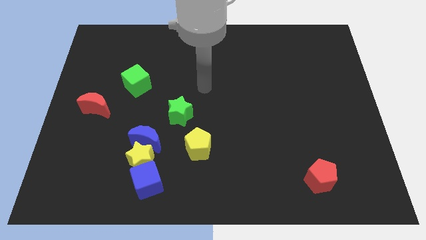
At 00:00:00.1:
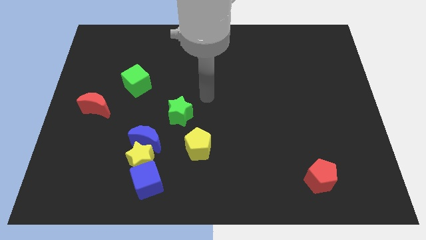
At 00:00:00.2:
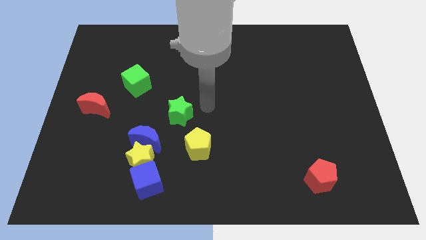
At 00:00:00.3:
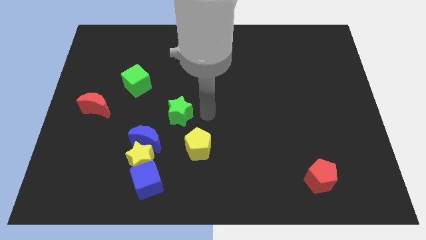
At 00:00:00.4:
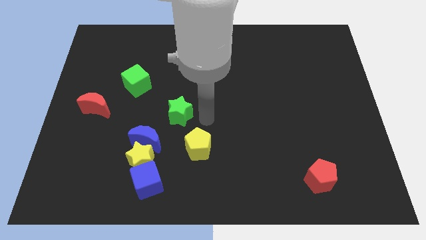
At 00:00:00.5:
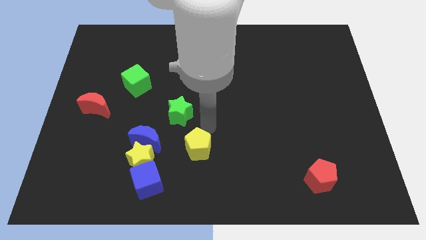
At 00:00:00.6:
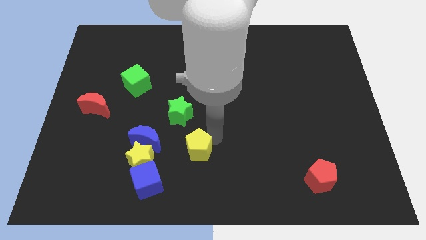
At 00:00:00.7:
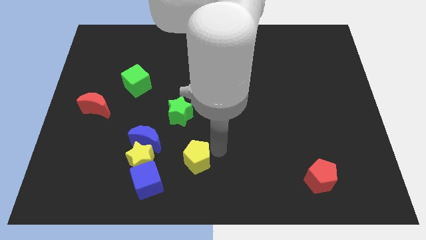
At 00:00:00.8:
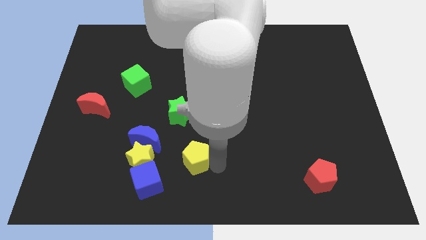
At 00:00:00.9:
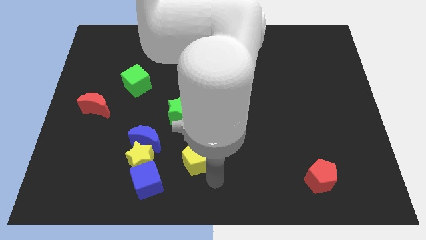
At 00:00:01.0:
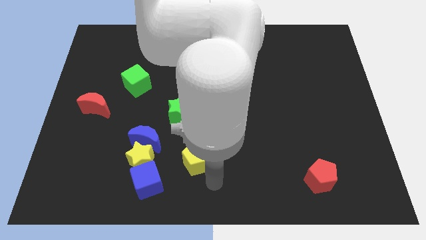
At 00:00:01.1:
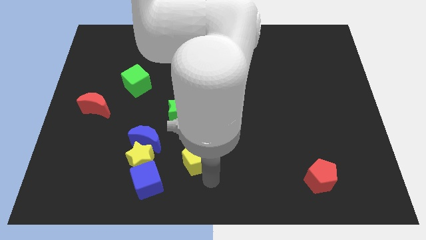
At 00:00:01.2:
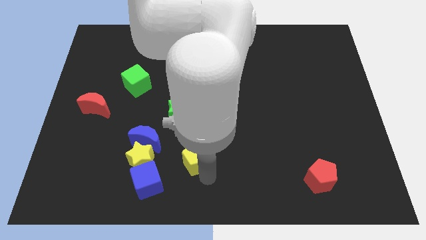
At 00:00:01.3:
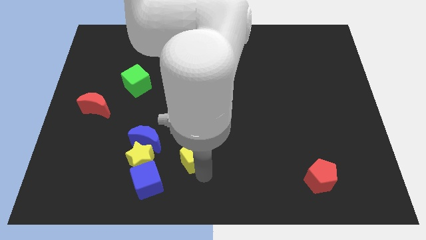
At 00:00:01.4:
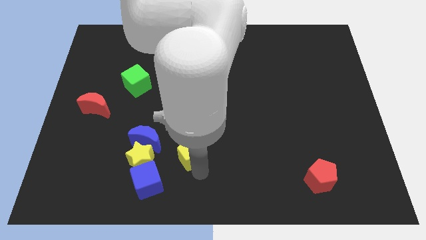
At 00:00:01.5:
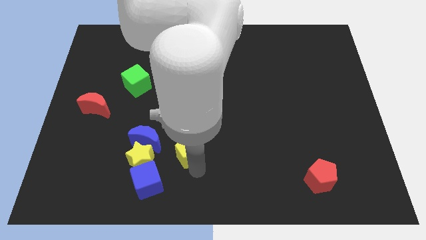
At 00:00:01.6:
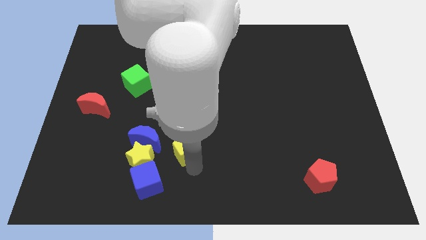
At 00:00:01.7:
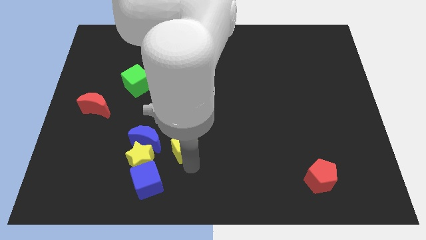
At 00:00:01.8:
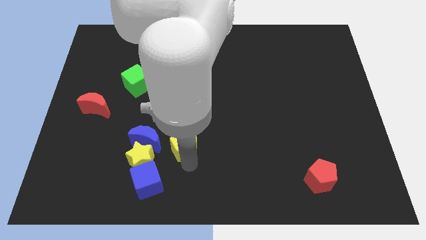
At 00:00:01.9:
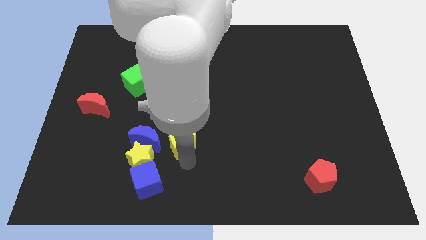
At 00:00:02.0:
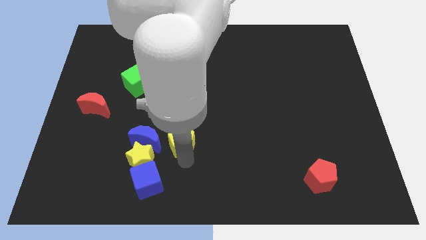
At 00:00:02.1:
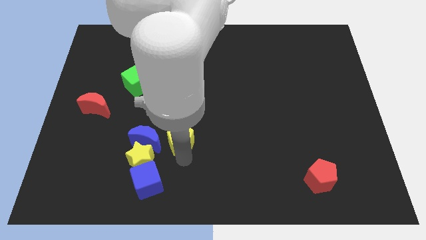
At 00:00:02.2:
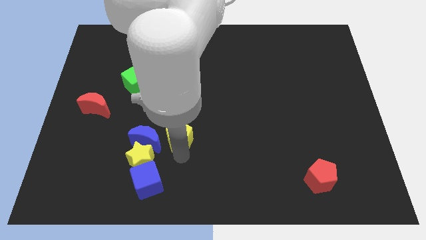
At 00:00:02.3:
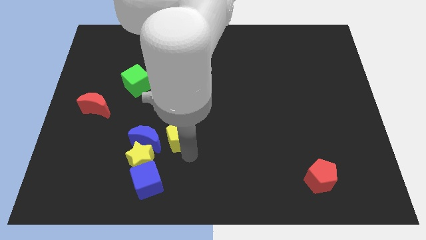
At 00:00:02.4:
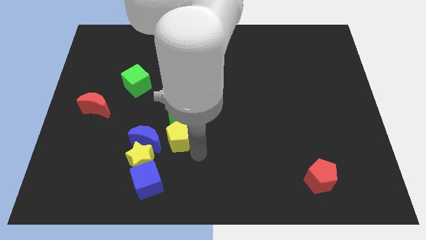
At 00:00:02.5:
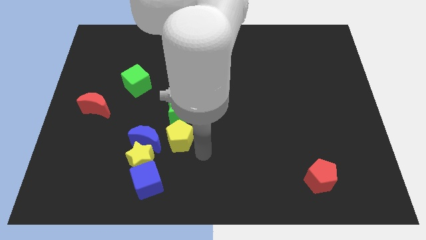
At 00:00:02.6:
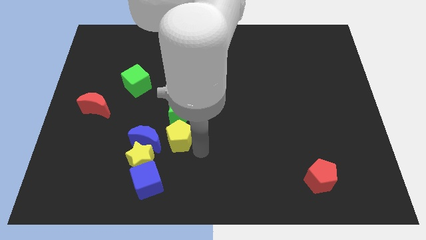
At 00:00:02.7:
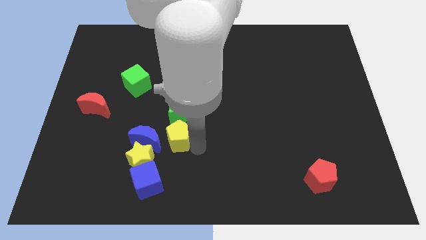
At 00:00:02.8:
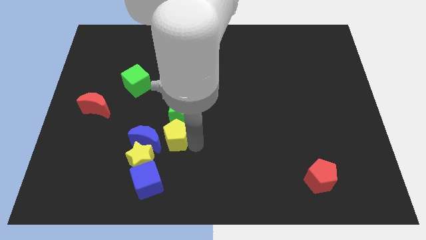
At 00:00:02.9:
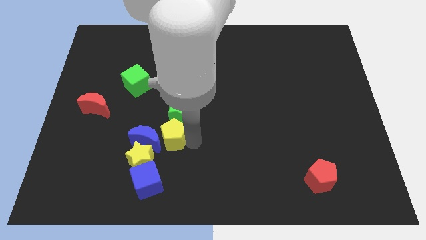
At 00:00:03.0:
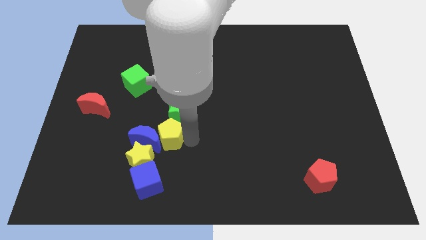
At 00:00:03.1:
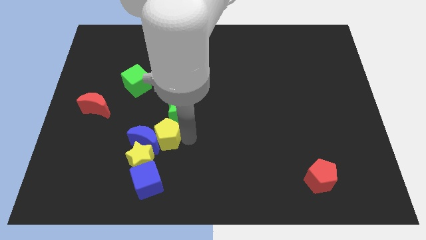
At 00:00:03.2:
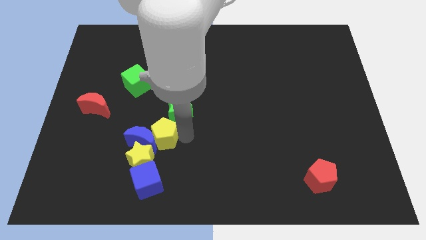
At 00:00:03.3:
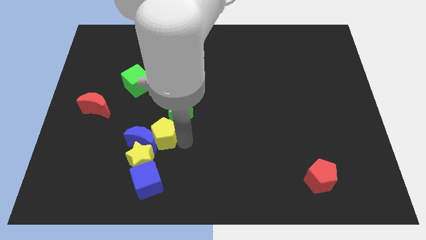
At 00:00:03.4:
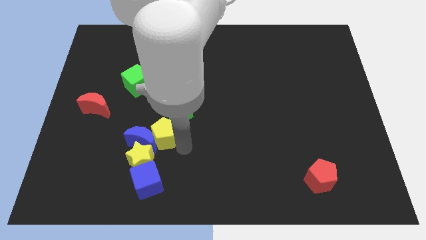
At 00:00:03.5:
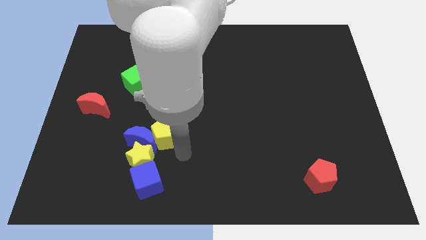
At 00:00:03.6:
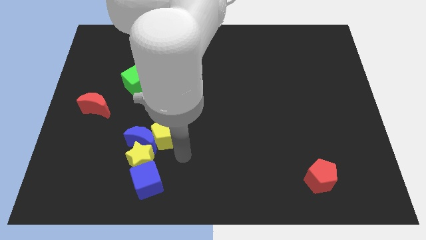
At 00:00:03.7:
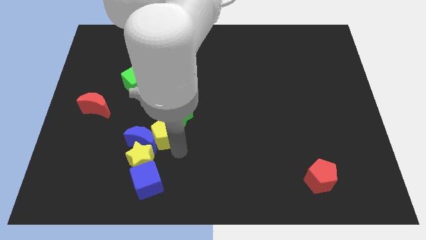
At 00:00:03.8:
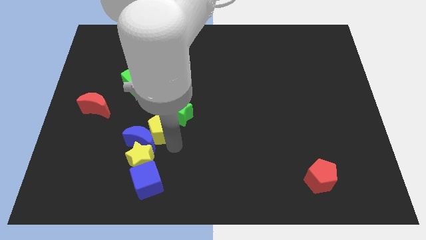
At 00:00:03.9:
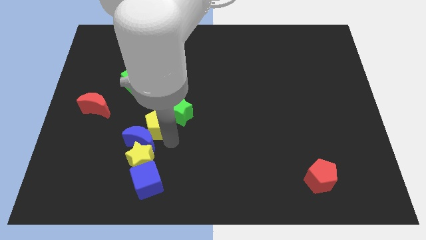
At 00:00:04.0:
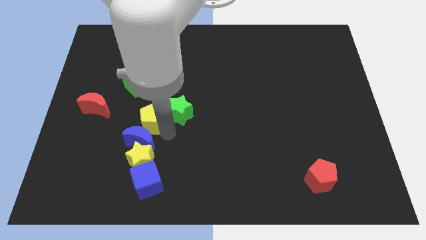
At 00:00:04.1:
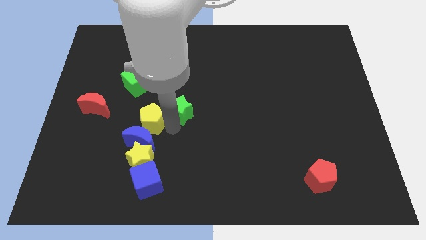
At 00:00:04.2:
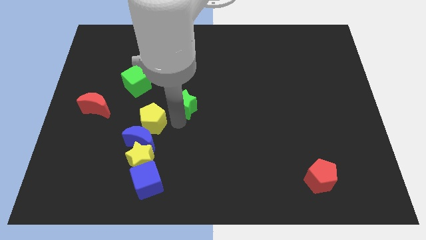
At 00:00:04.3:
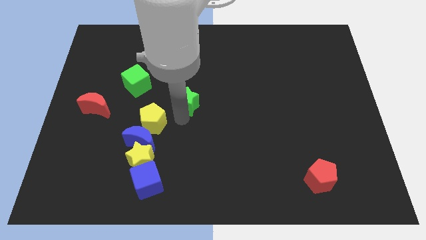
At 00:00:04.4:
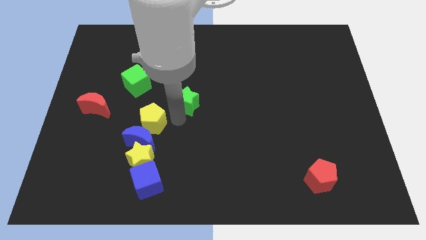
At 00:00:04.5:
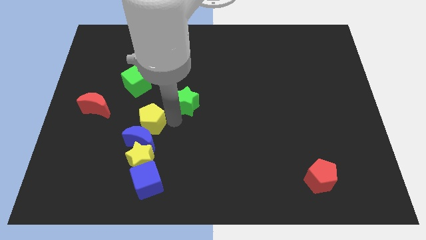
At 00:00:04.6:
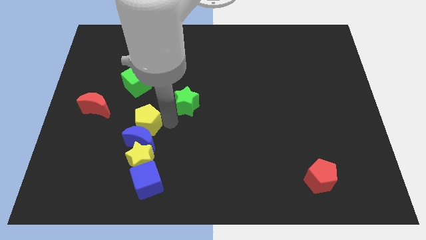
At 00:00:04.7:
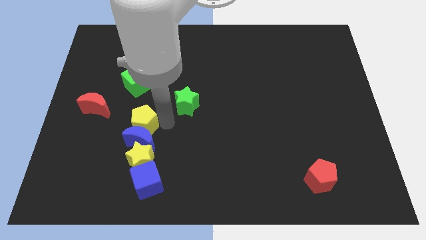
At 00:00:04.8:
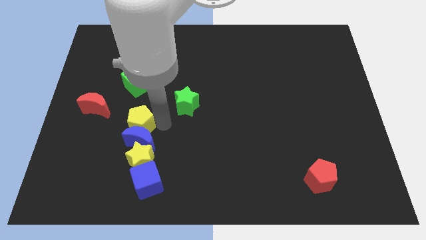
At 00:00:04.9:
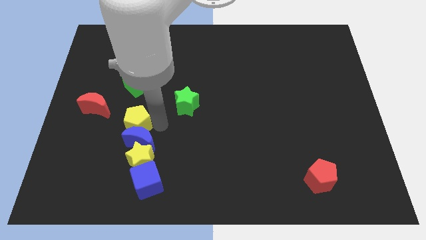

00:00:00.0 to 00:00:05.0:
put the yellow pentagon to the bottom right of the red moon

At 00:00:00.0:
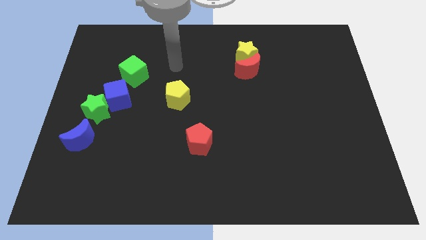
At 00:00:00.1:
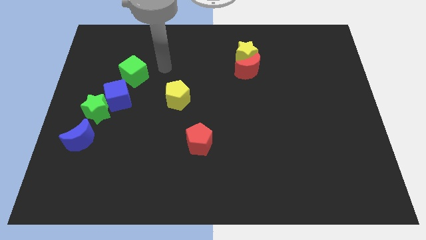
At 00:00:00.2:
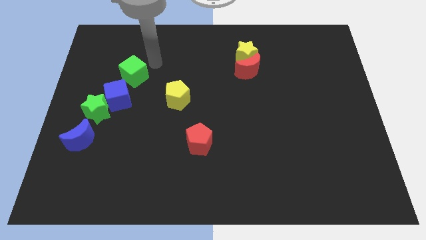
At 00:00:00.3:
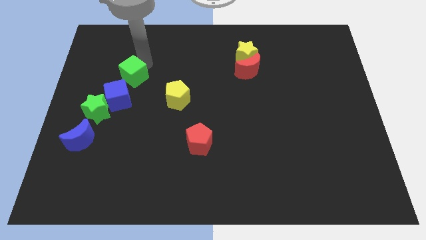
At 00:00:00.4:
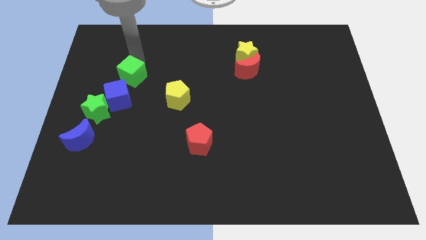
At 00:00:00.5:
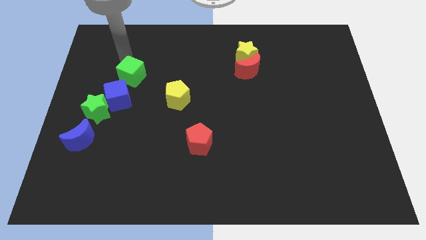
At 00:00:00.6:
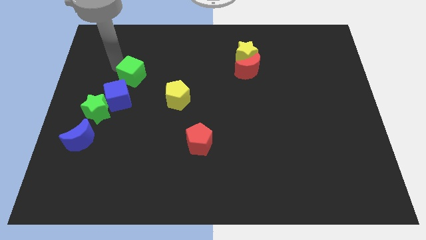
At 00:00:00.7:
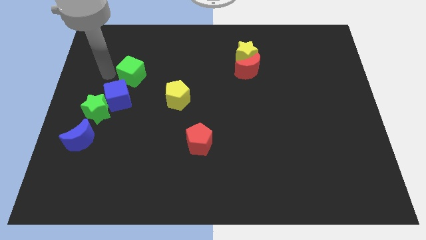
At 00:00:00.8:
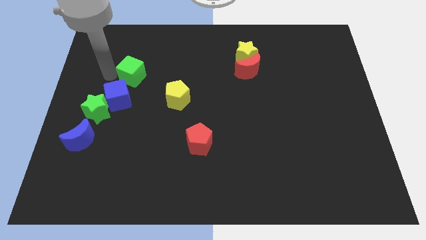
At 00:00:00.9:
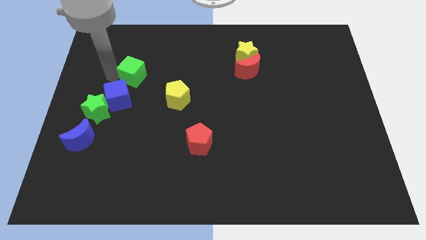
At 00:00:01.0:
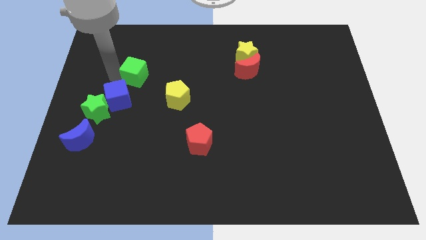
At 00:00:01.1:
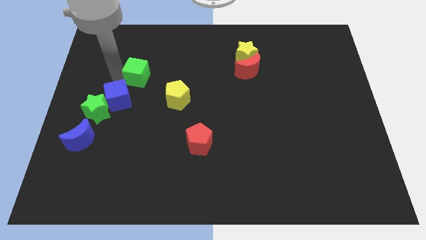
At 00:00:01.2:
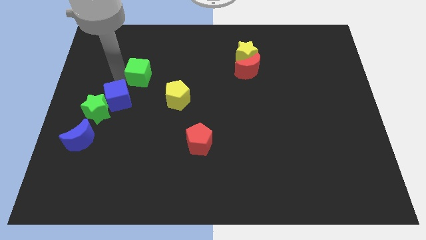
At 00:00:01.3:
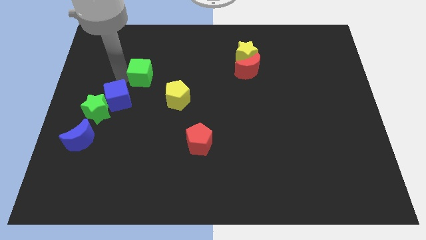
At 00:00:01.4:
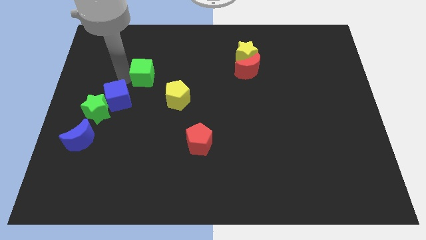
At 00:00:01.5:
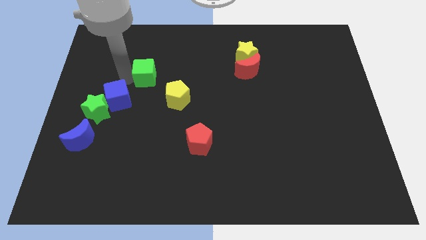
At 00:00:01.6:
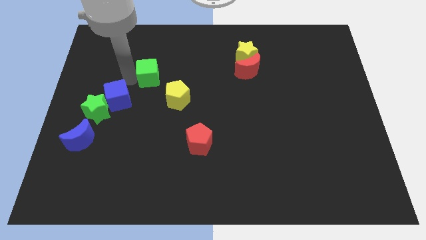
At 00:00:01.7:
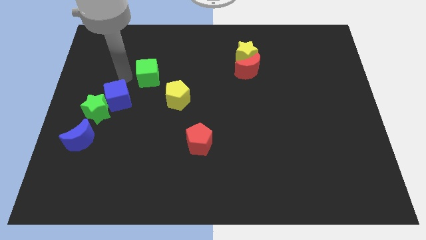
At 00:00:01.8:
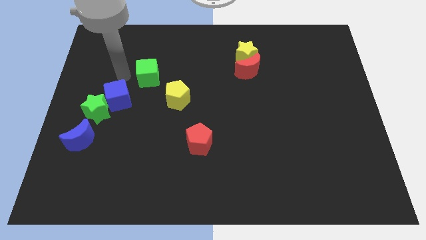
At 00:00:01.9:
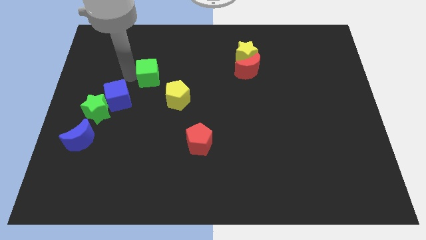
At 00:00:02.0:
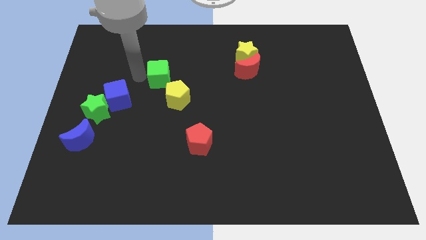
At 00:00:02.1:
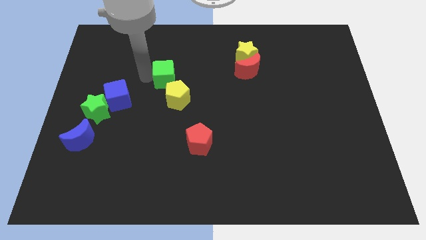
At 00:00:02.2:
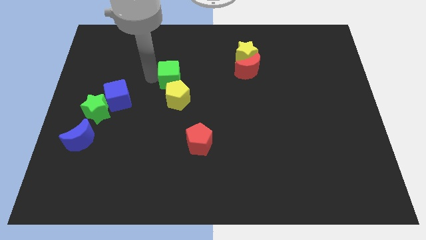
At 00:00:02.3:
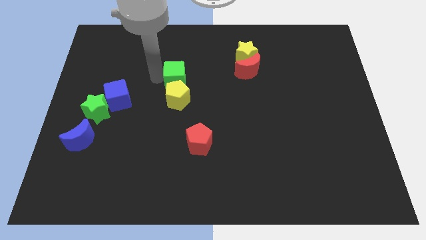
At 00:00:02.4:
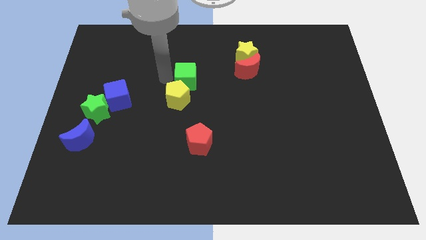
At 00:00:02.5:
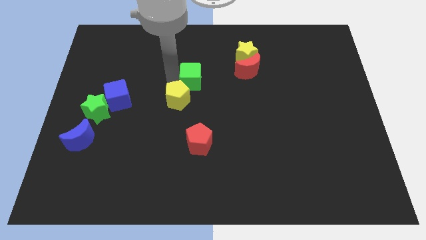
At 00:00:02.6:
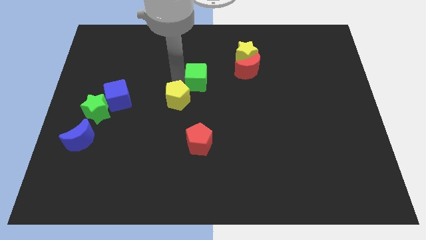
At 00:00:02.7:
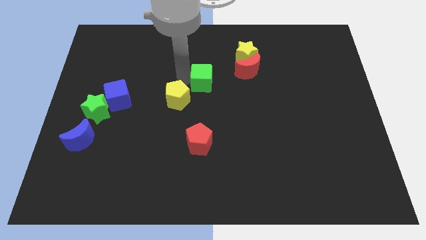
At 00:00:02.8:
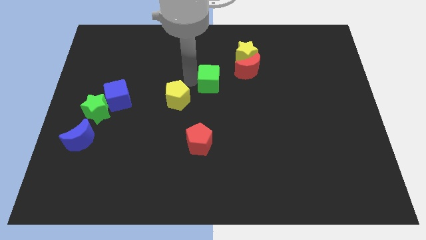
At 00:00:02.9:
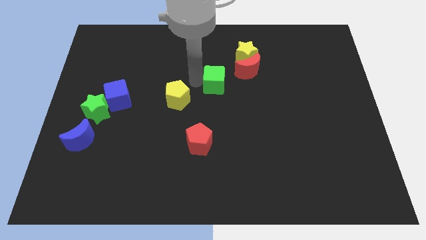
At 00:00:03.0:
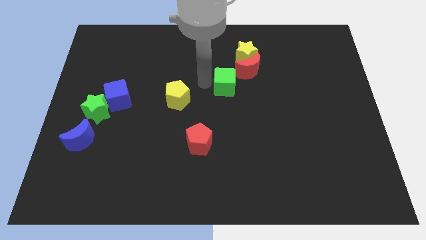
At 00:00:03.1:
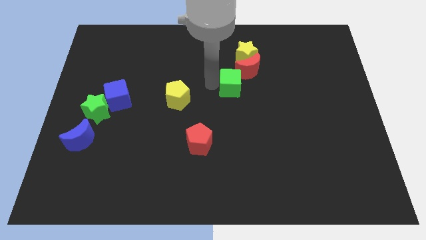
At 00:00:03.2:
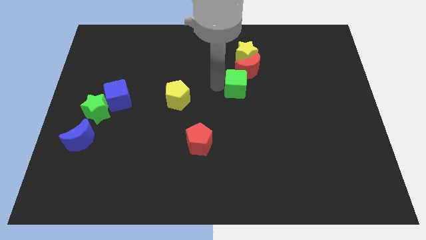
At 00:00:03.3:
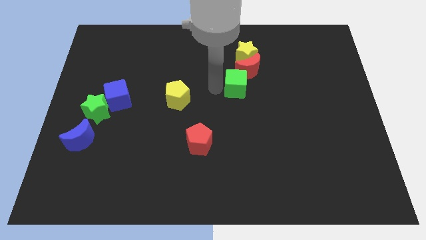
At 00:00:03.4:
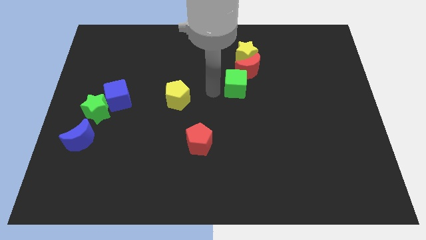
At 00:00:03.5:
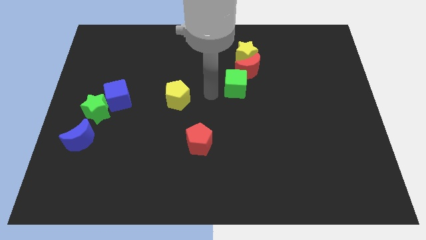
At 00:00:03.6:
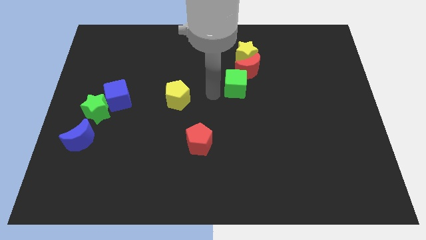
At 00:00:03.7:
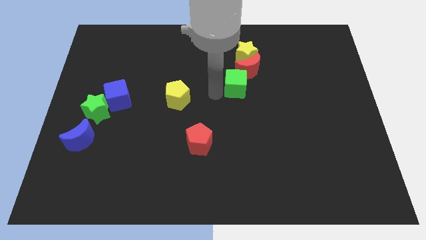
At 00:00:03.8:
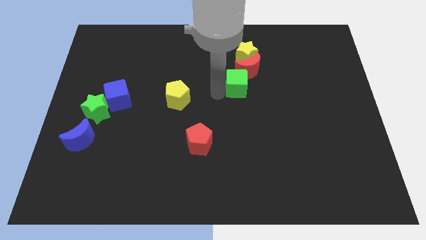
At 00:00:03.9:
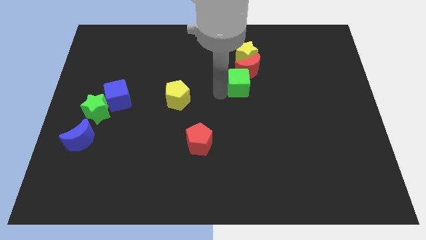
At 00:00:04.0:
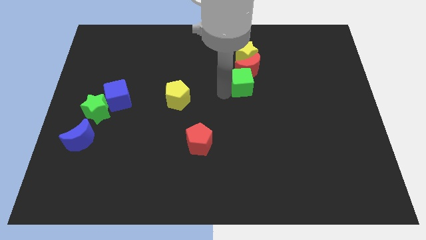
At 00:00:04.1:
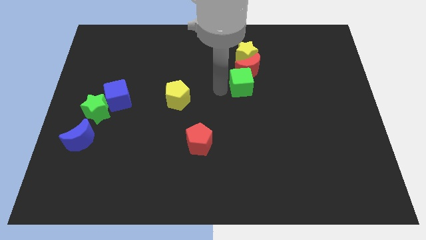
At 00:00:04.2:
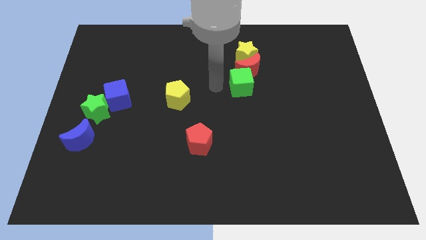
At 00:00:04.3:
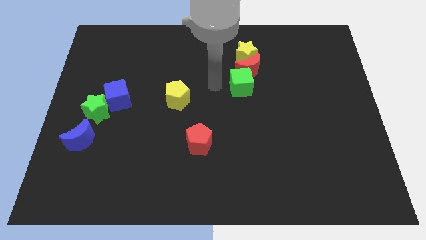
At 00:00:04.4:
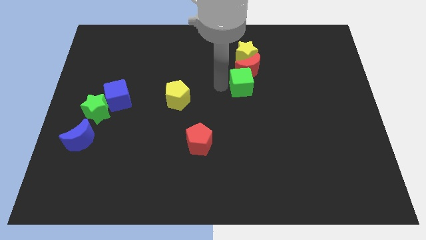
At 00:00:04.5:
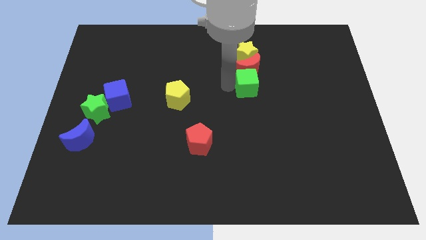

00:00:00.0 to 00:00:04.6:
slide the green cube to the bottom right of the red moon
